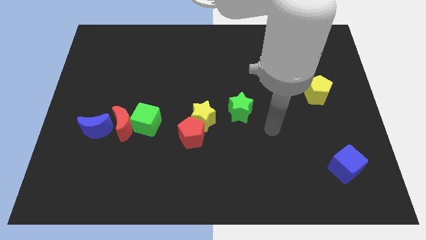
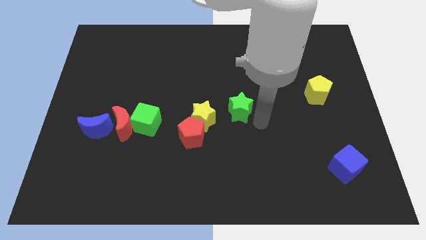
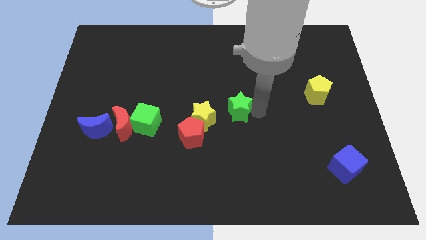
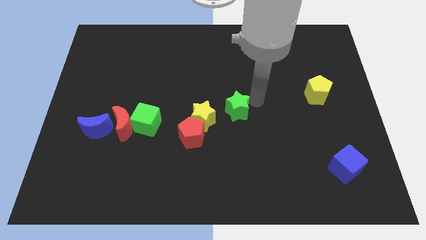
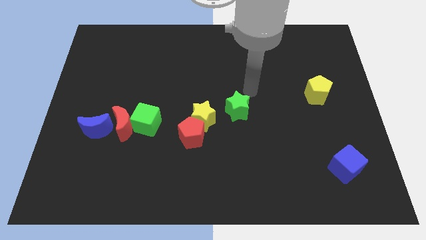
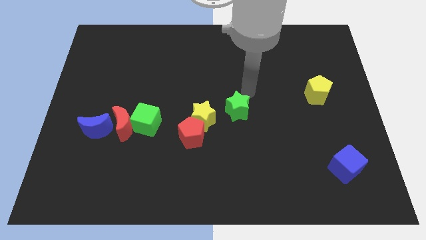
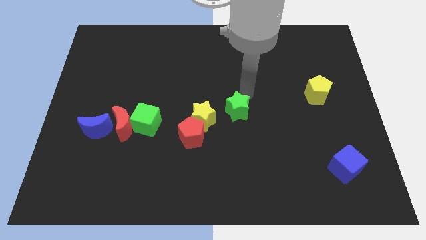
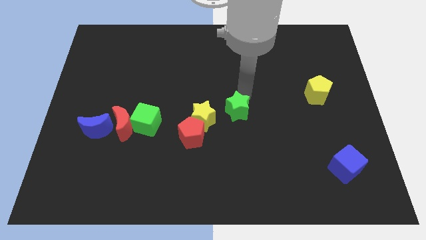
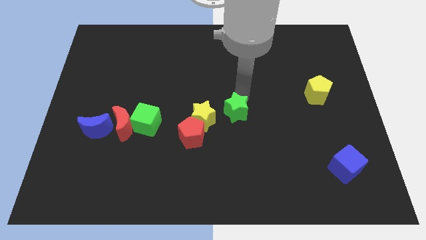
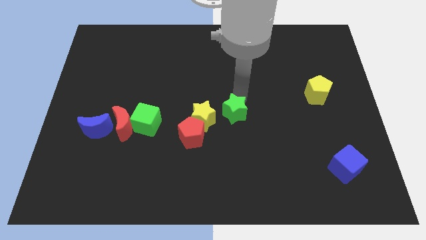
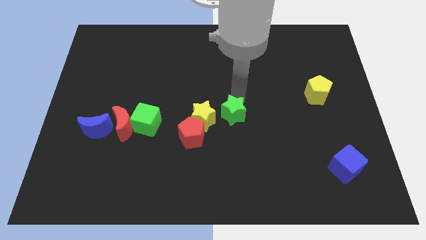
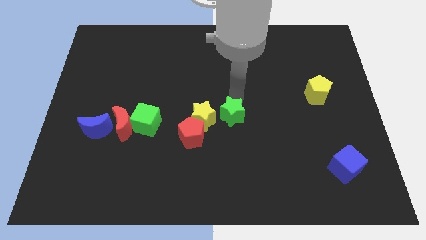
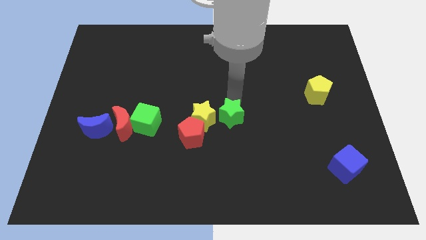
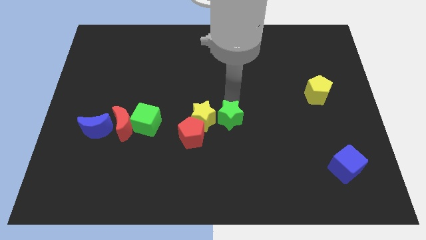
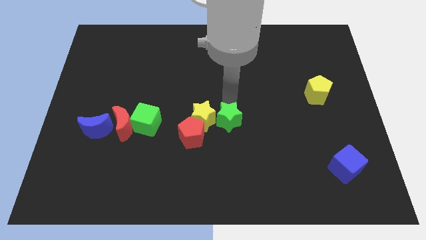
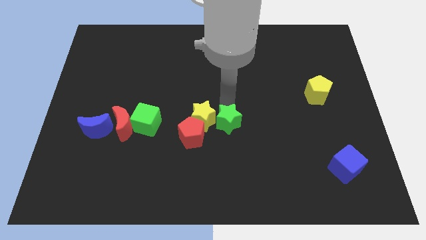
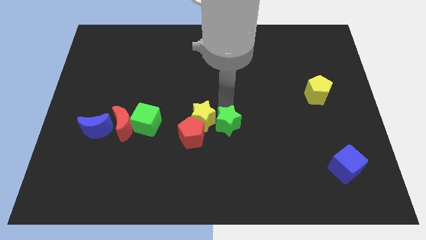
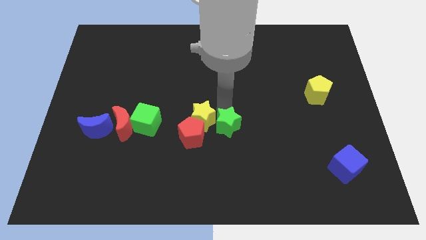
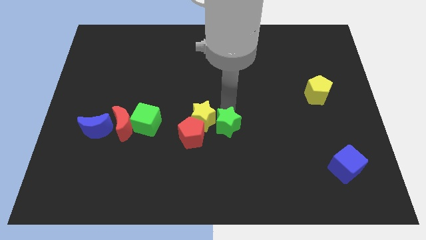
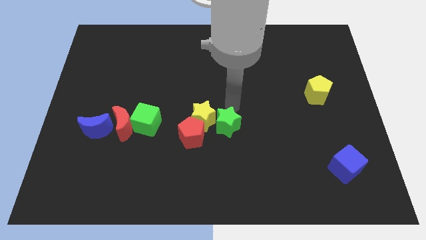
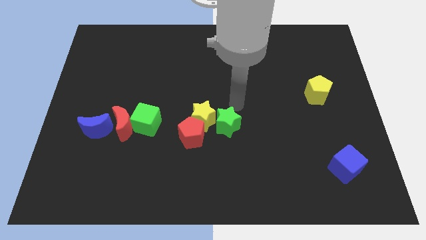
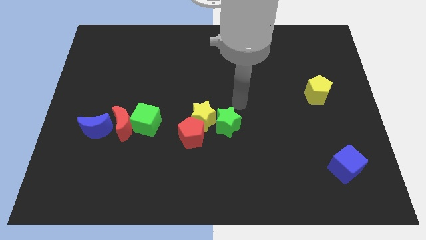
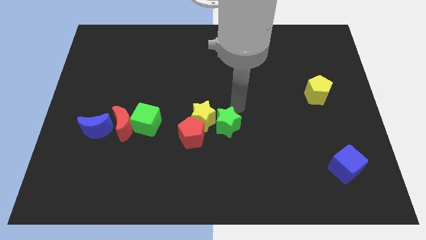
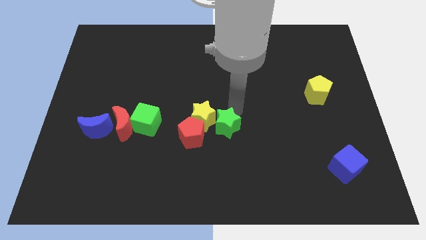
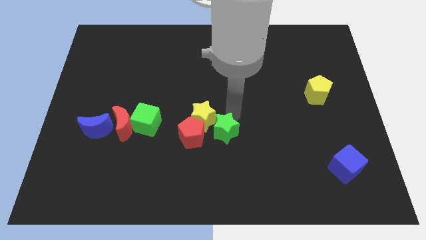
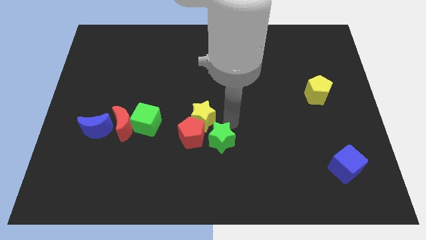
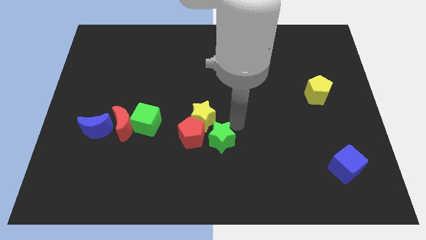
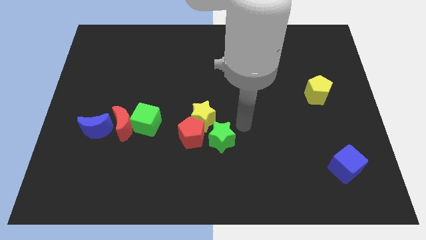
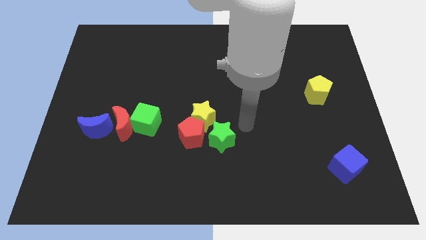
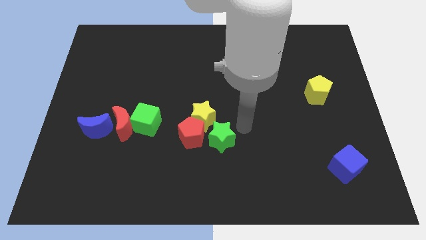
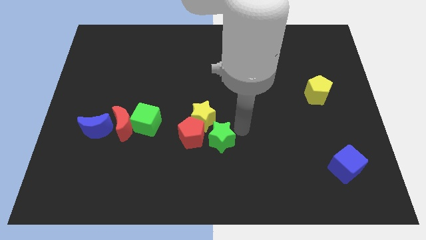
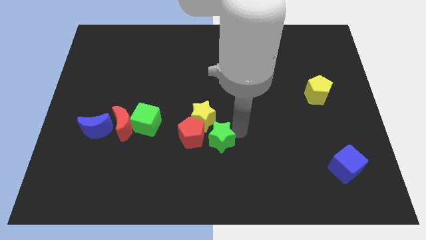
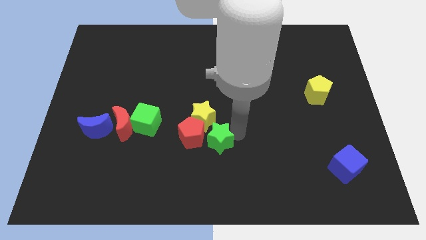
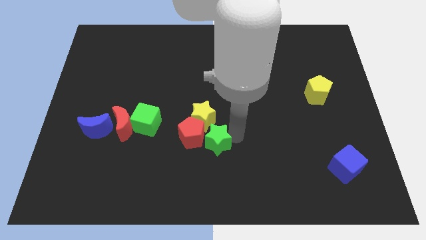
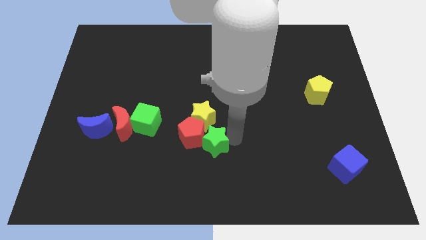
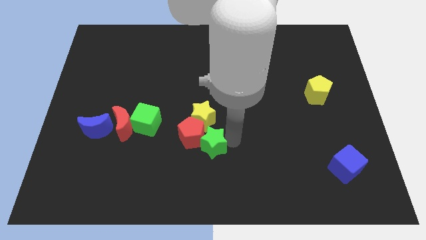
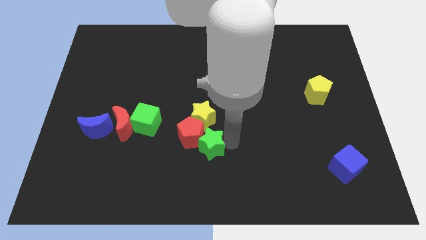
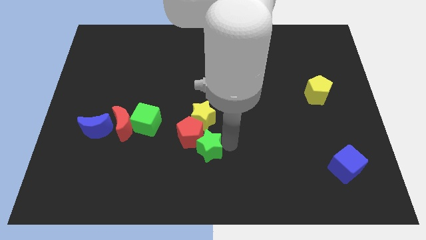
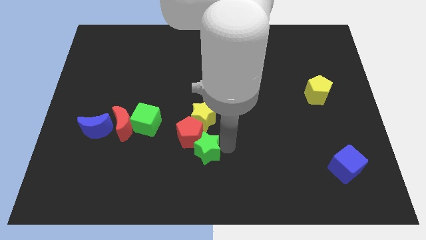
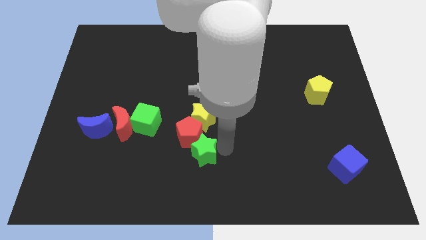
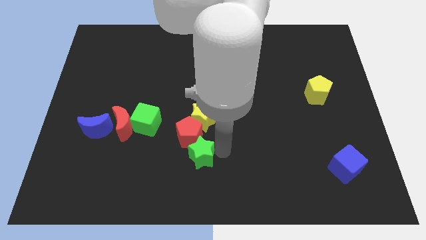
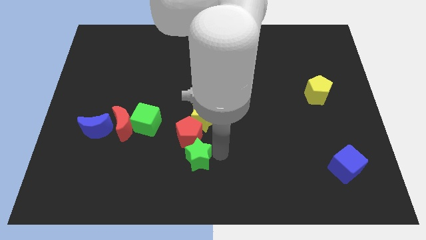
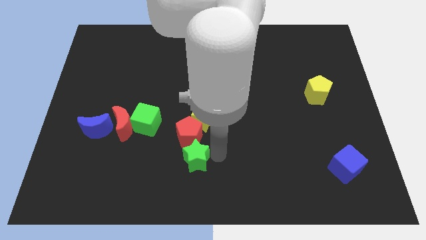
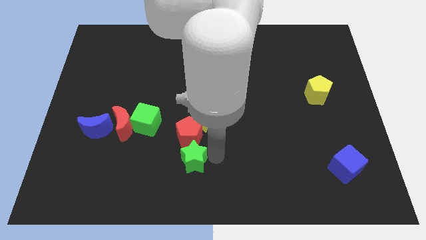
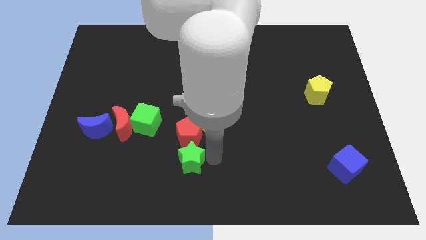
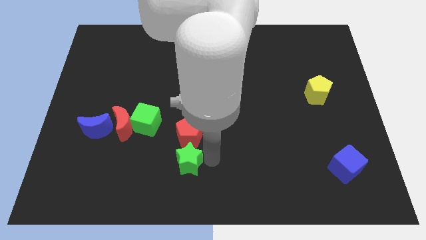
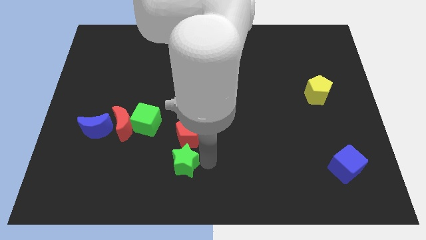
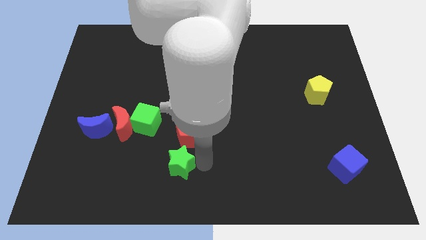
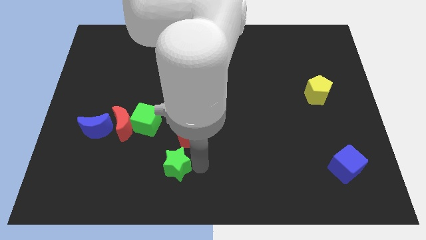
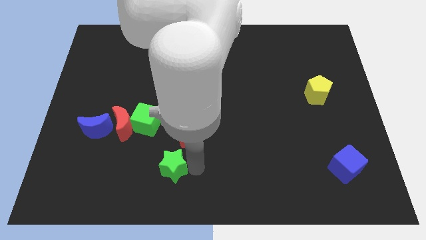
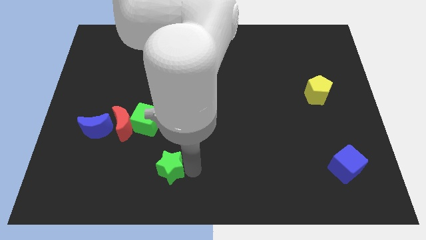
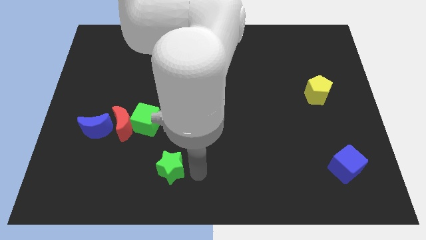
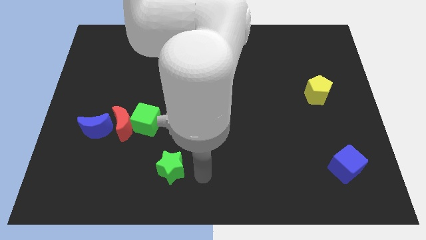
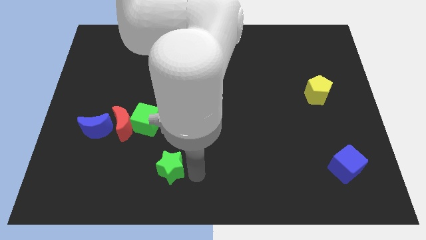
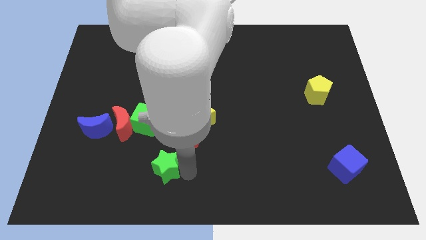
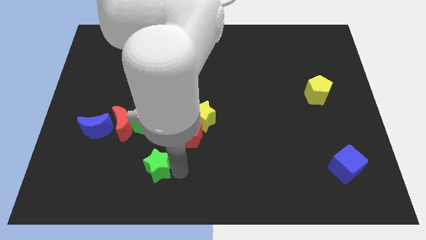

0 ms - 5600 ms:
push the green star below the green cube

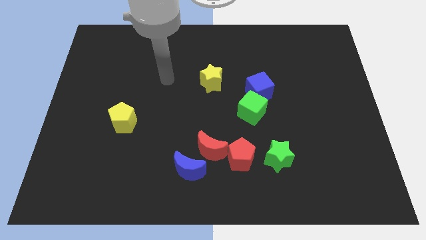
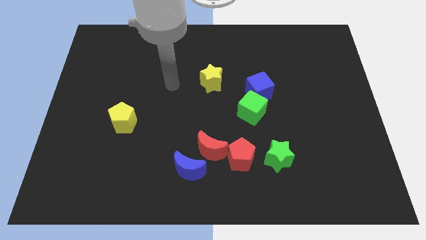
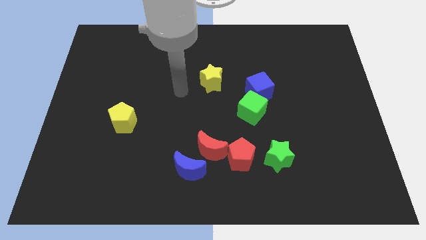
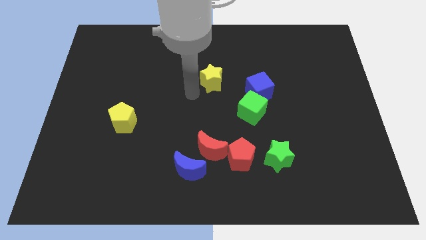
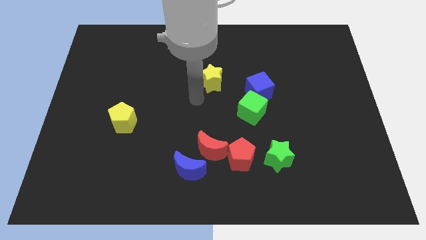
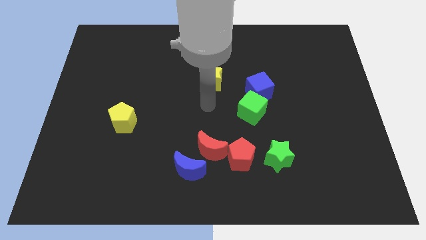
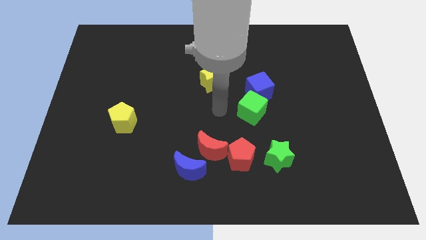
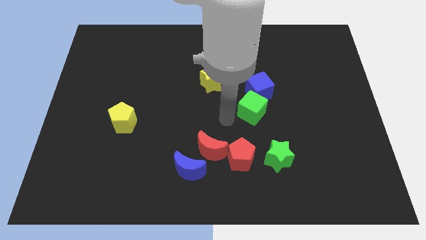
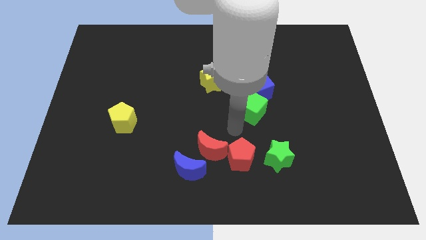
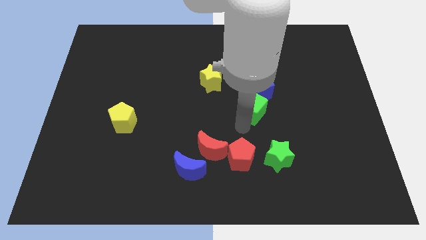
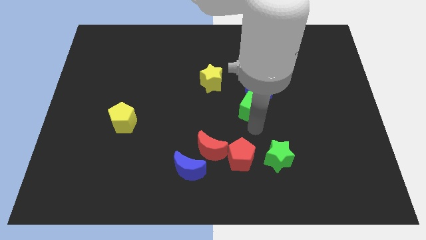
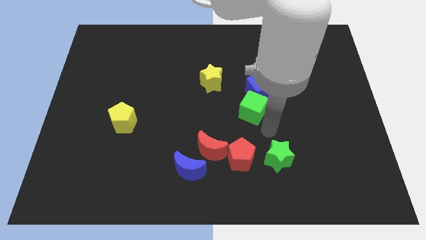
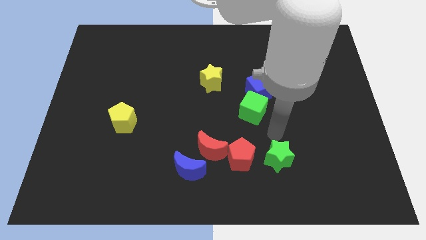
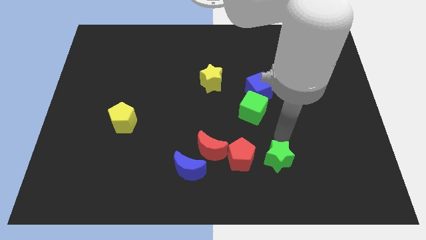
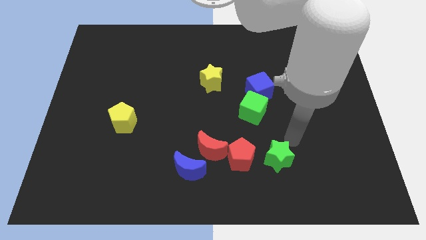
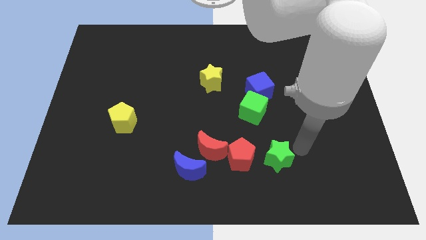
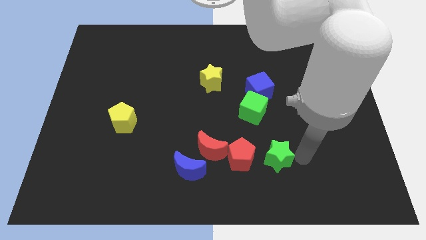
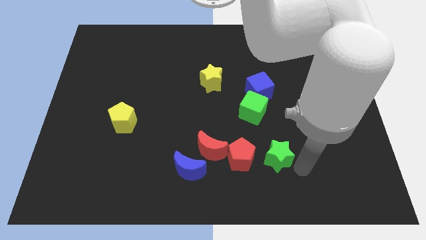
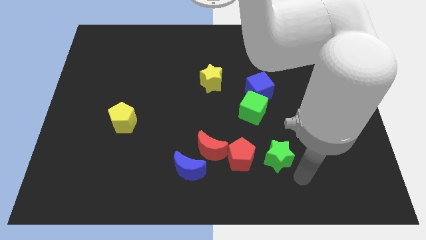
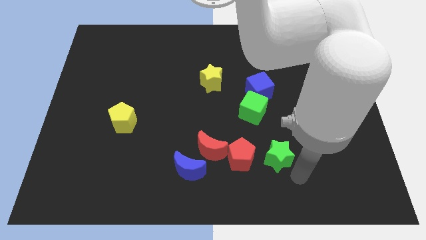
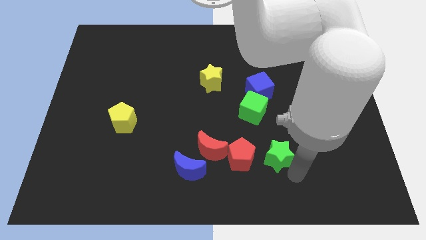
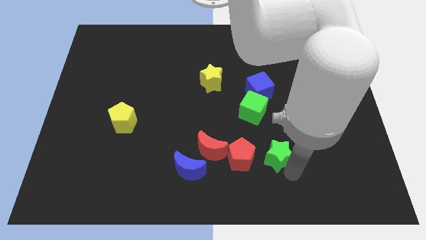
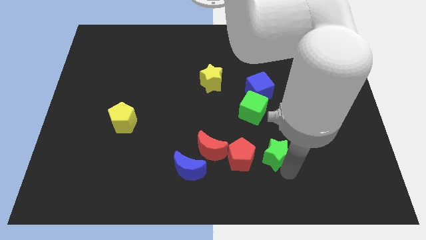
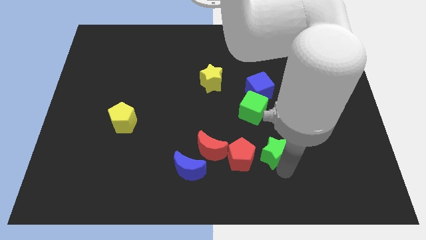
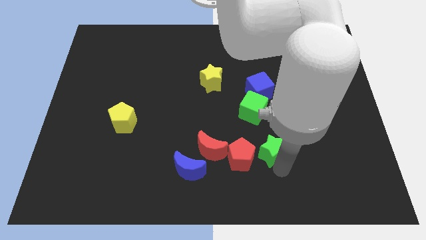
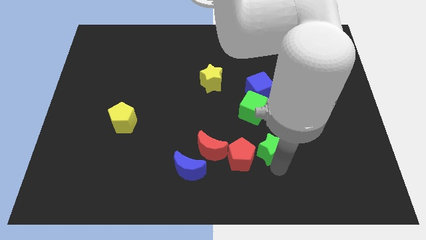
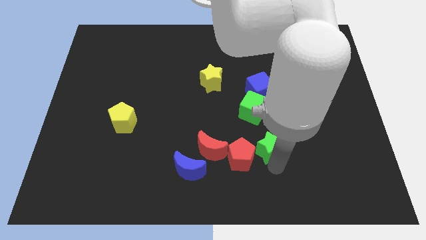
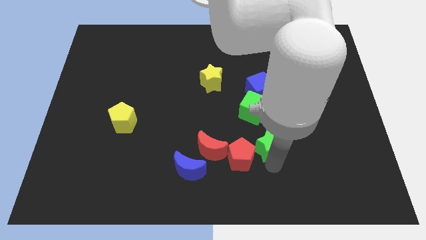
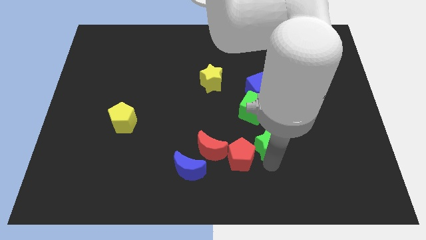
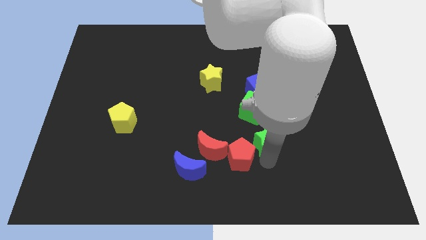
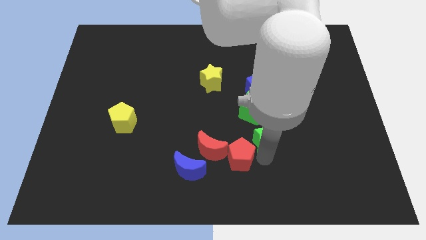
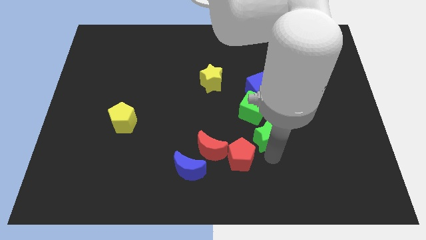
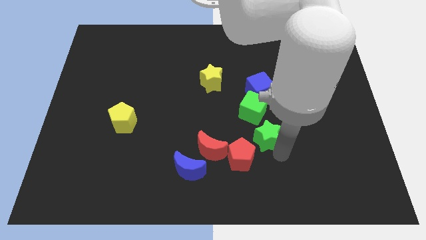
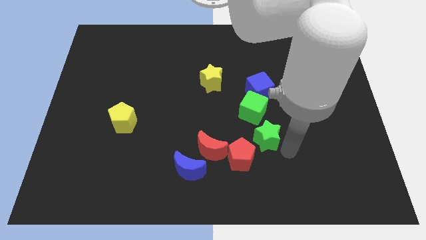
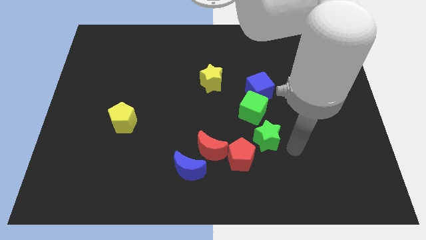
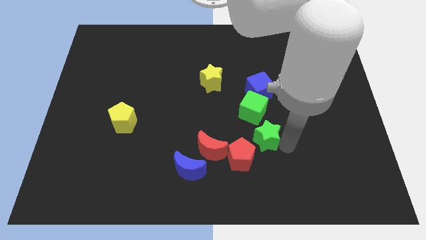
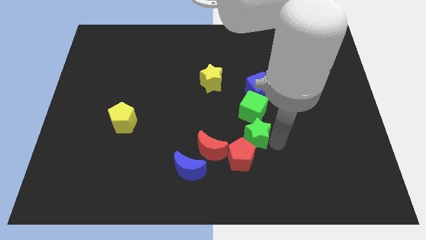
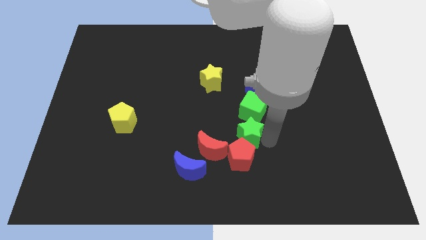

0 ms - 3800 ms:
push the green star to the bottom left side of the green cube
